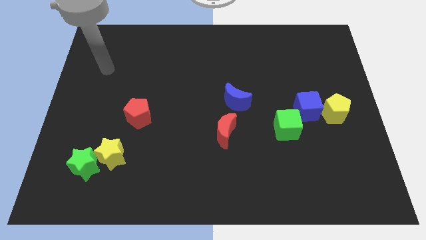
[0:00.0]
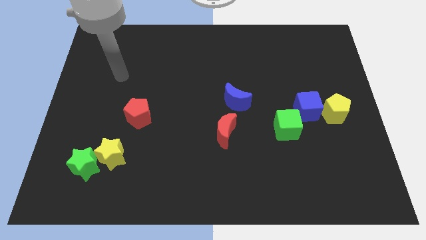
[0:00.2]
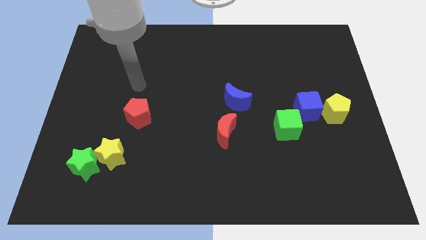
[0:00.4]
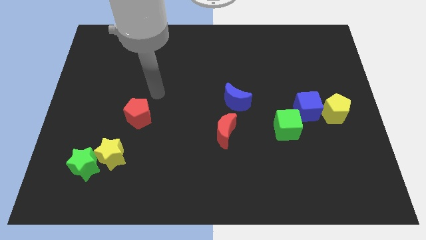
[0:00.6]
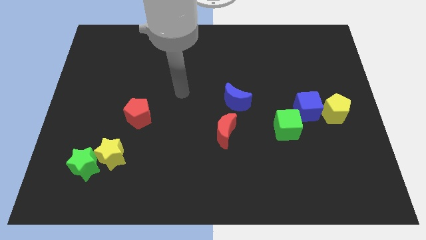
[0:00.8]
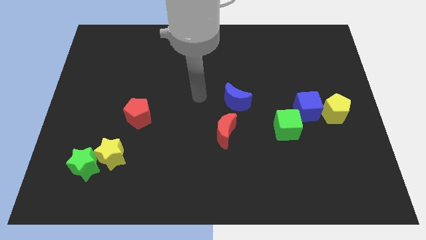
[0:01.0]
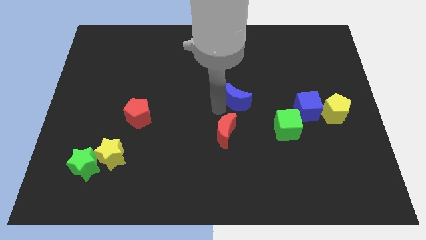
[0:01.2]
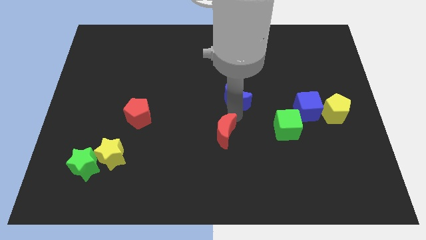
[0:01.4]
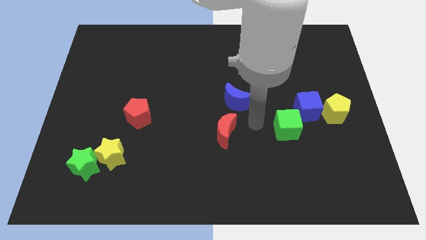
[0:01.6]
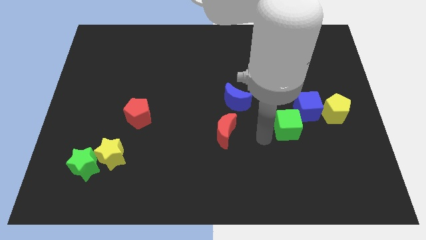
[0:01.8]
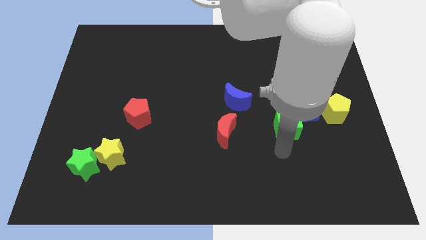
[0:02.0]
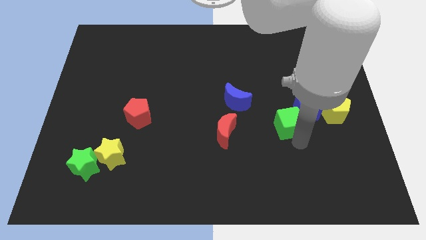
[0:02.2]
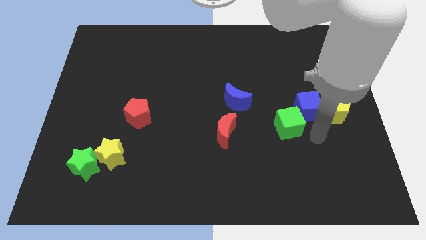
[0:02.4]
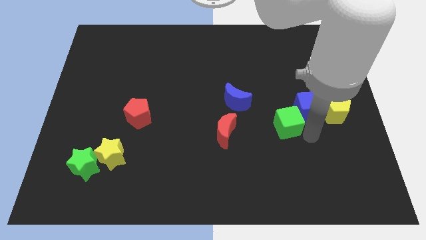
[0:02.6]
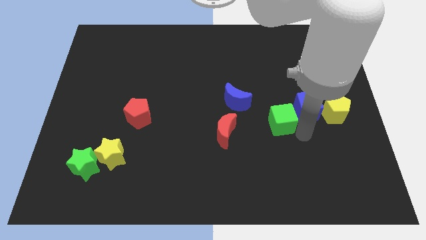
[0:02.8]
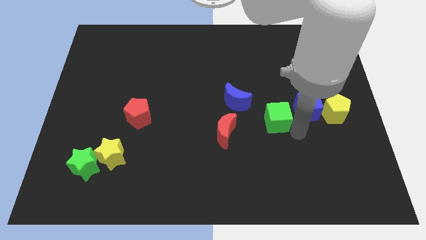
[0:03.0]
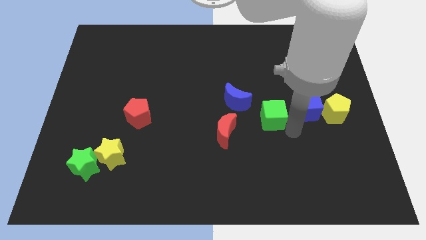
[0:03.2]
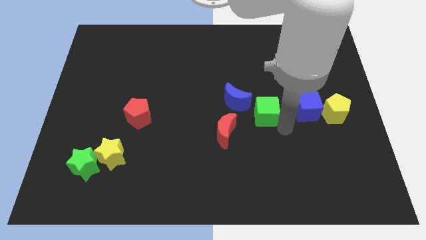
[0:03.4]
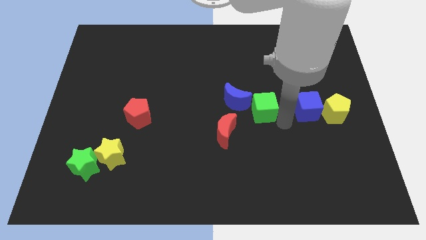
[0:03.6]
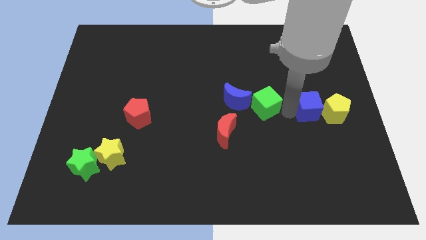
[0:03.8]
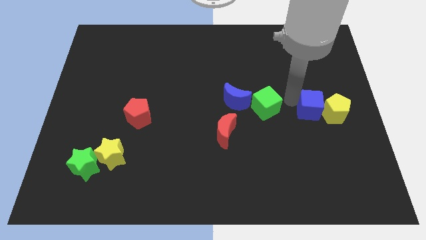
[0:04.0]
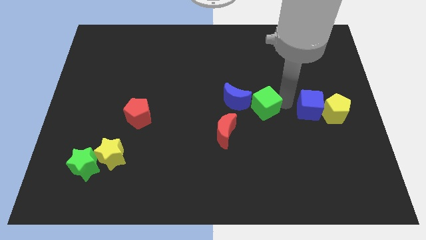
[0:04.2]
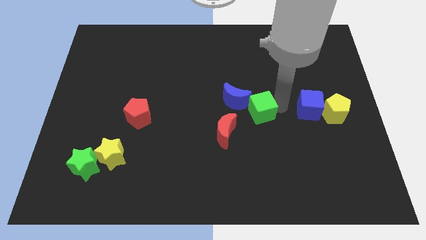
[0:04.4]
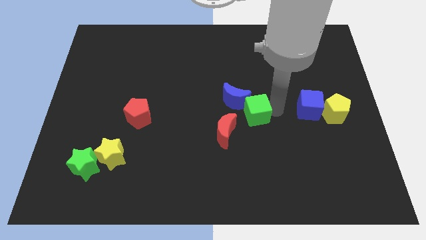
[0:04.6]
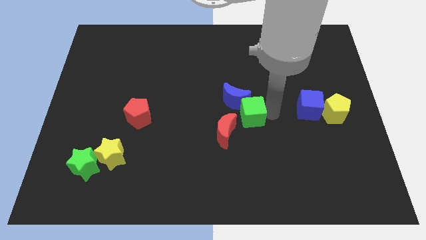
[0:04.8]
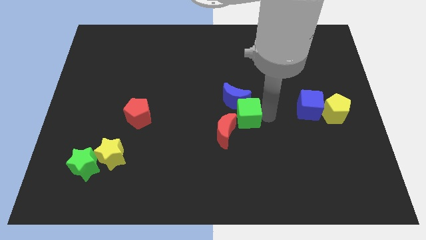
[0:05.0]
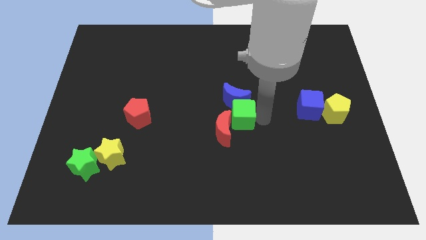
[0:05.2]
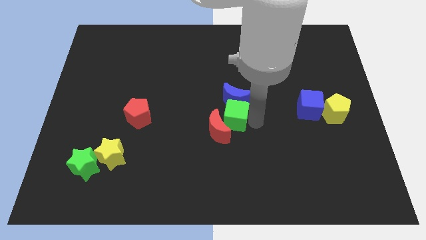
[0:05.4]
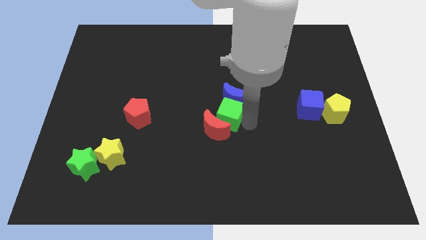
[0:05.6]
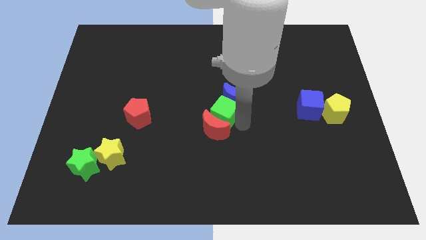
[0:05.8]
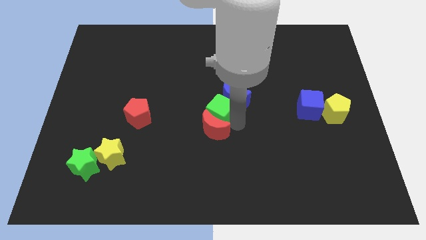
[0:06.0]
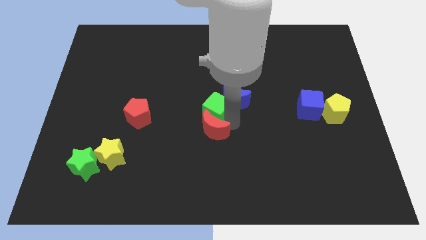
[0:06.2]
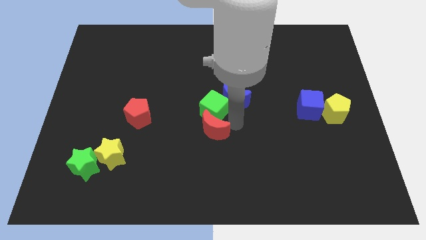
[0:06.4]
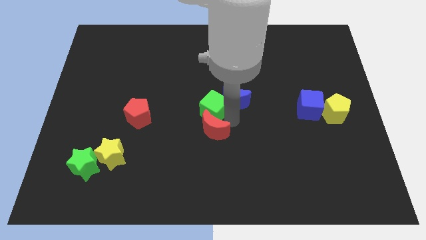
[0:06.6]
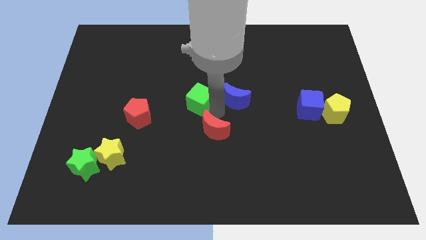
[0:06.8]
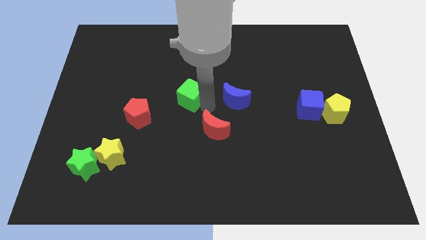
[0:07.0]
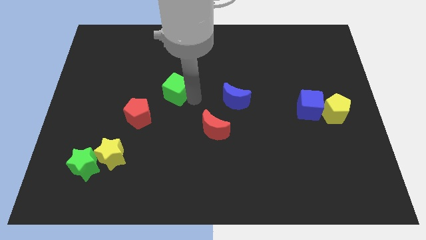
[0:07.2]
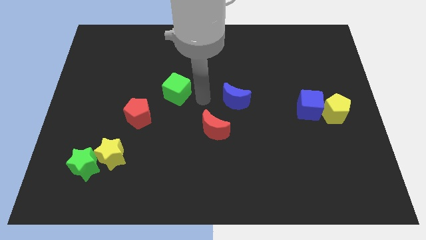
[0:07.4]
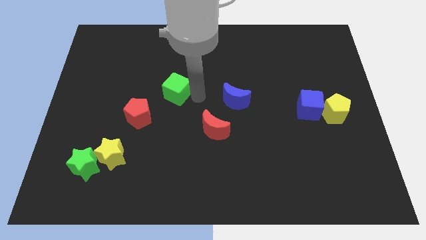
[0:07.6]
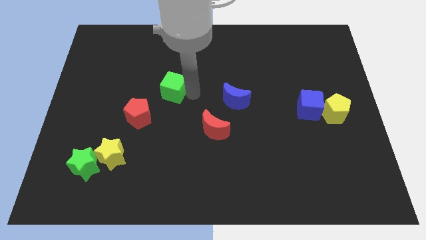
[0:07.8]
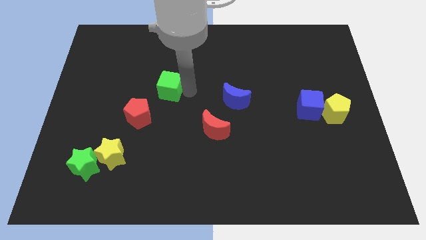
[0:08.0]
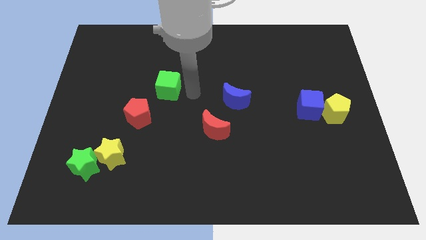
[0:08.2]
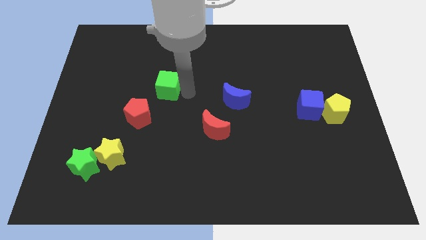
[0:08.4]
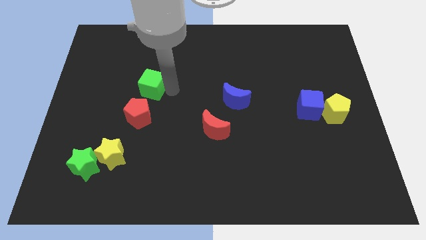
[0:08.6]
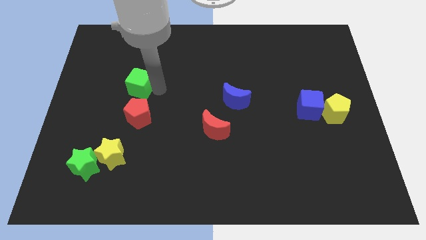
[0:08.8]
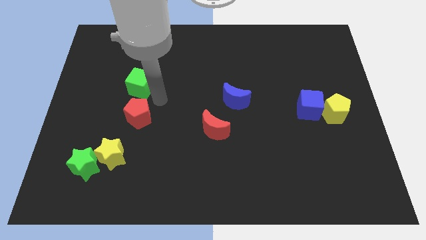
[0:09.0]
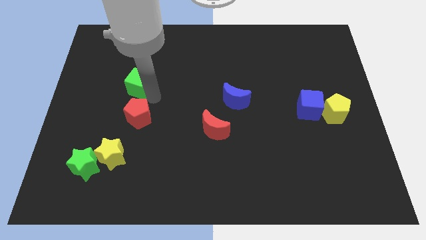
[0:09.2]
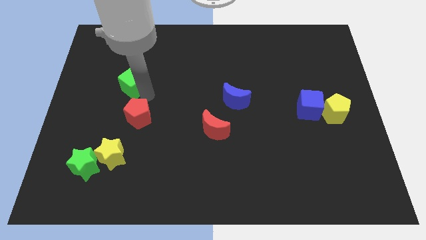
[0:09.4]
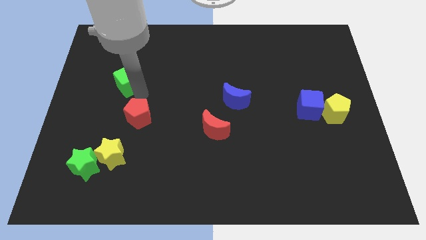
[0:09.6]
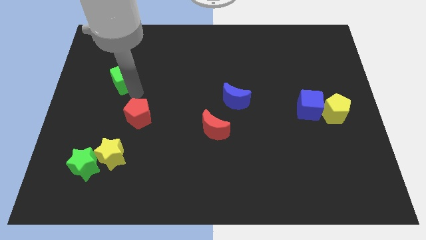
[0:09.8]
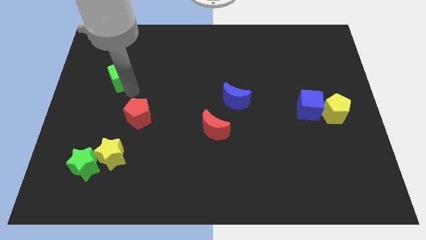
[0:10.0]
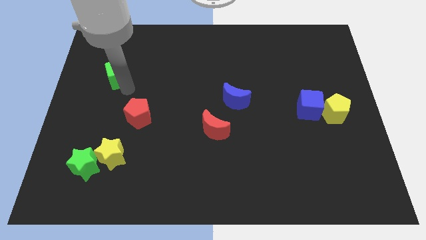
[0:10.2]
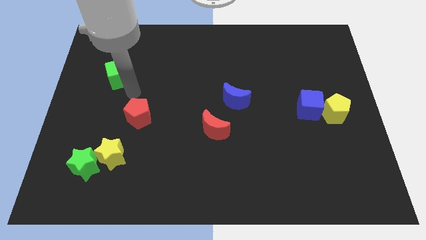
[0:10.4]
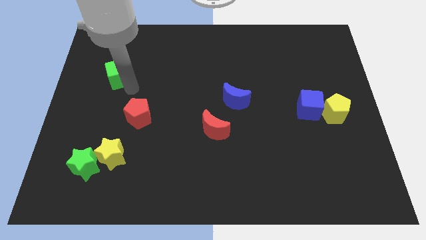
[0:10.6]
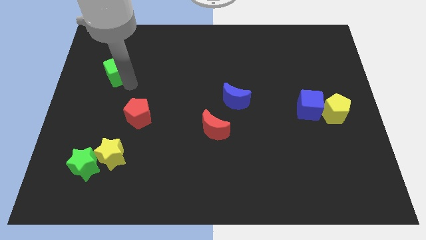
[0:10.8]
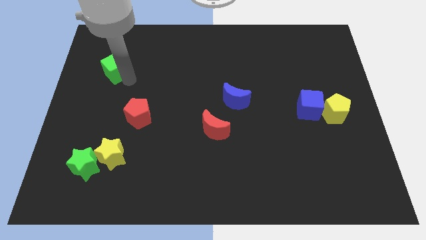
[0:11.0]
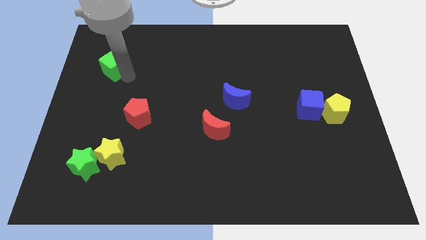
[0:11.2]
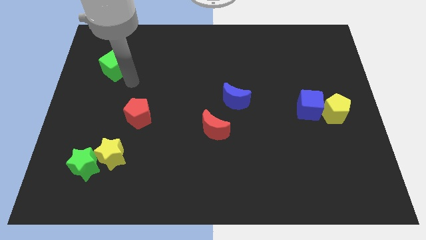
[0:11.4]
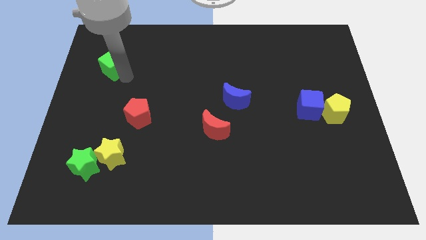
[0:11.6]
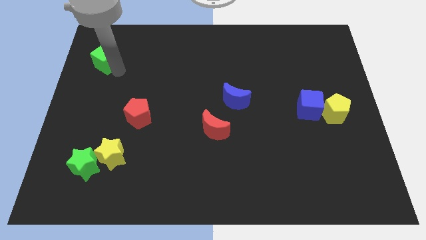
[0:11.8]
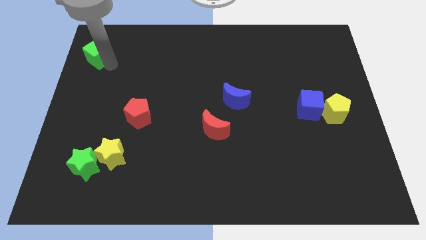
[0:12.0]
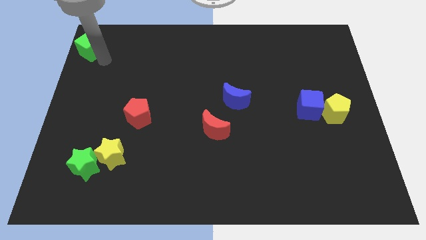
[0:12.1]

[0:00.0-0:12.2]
put the green cube to the top left
